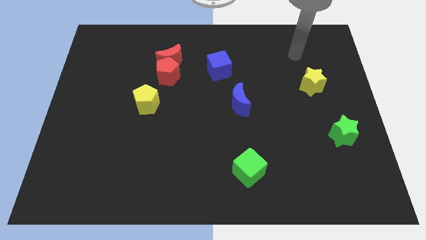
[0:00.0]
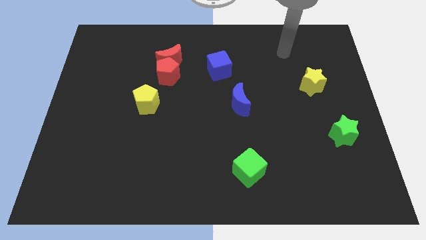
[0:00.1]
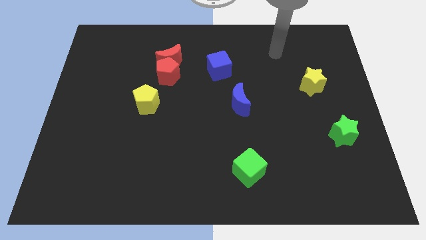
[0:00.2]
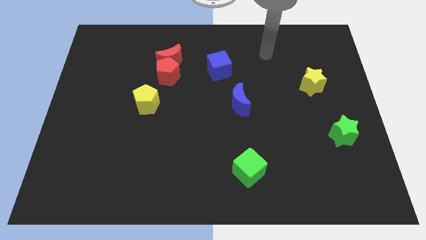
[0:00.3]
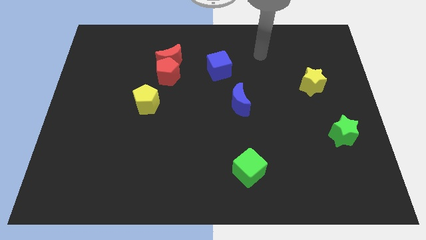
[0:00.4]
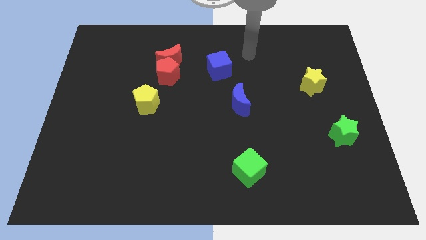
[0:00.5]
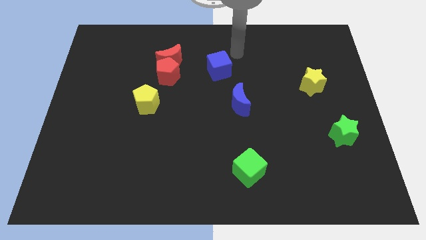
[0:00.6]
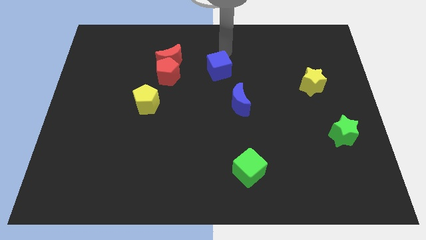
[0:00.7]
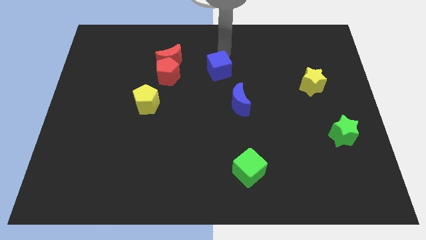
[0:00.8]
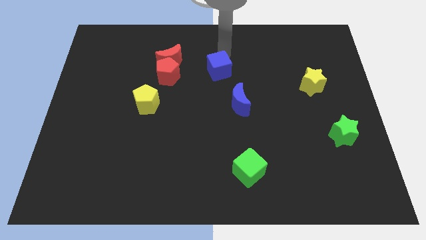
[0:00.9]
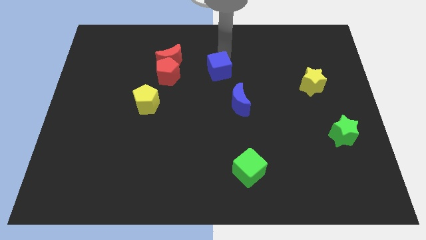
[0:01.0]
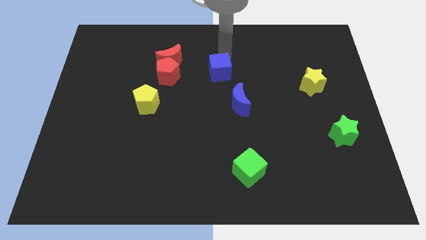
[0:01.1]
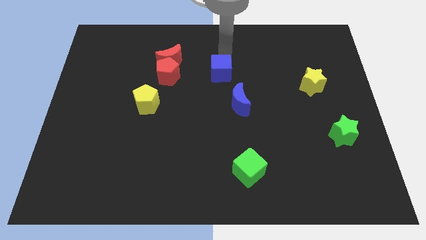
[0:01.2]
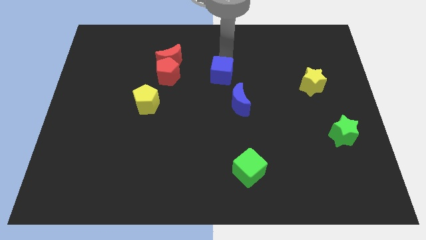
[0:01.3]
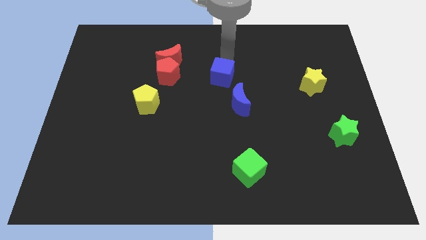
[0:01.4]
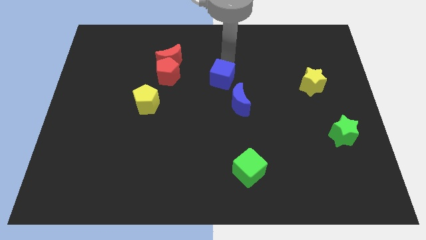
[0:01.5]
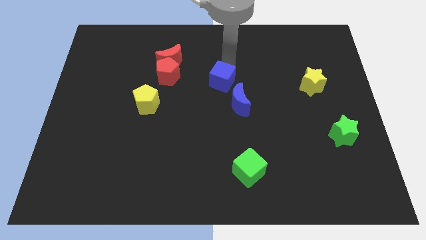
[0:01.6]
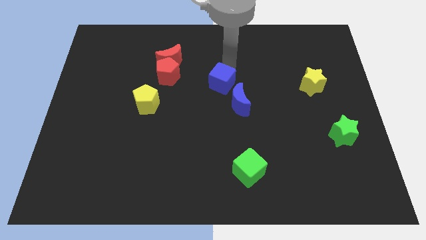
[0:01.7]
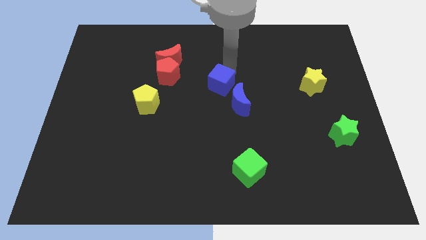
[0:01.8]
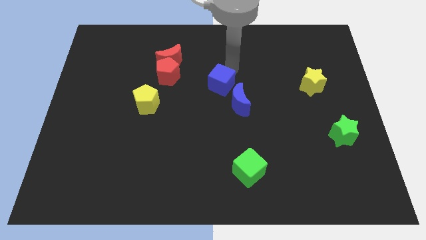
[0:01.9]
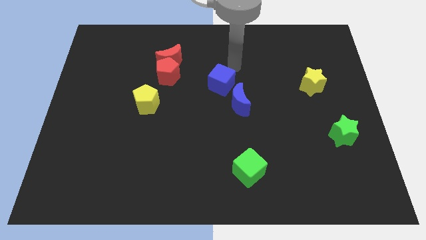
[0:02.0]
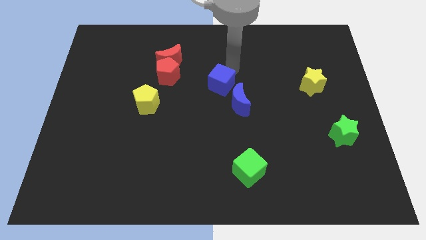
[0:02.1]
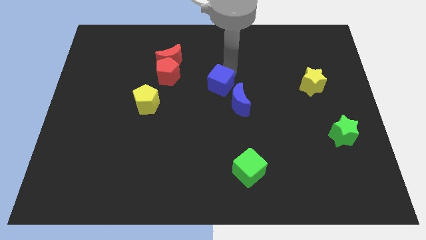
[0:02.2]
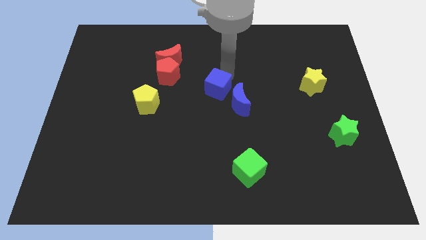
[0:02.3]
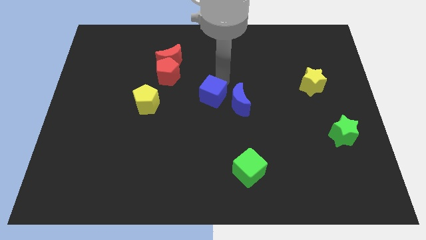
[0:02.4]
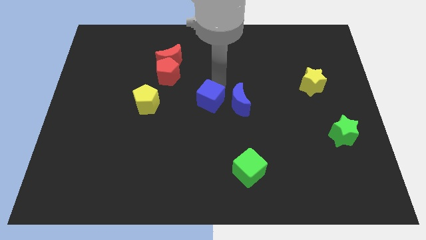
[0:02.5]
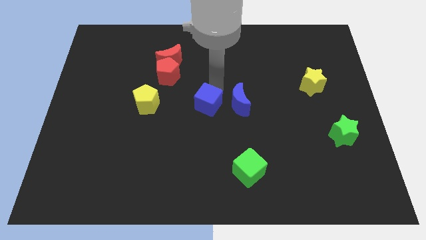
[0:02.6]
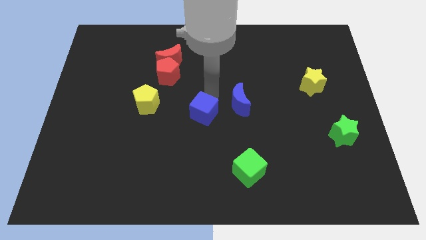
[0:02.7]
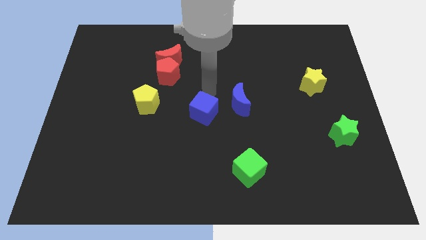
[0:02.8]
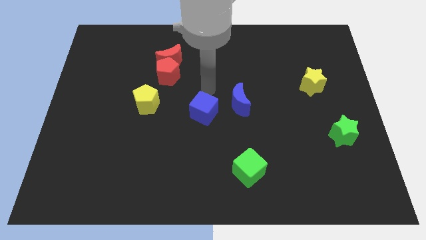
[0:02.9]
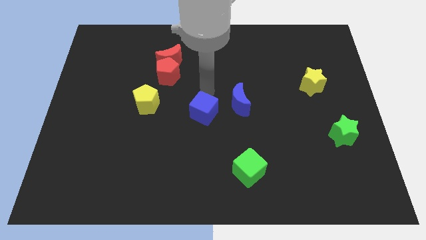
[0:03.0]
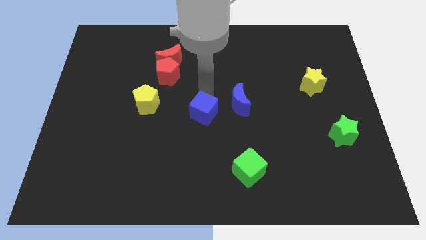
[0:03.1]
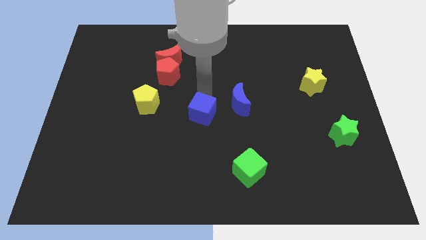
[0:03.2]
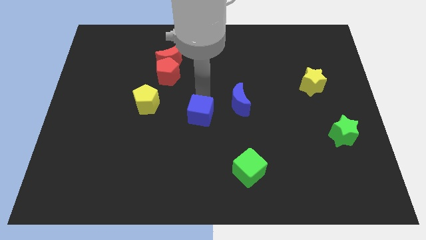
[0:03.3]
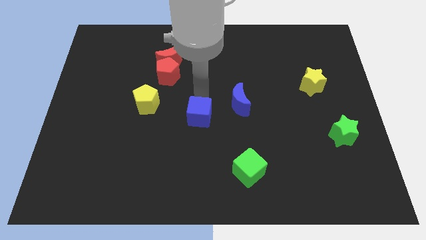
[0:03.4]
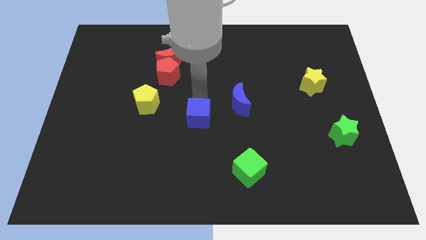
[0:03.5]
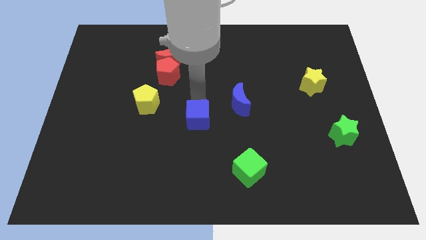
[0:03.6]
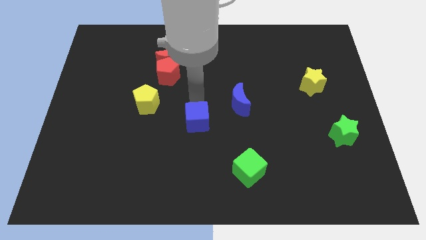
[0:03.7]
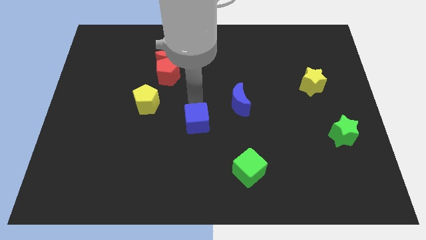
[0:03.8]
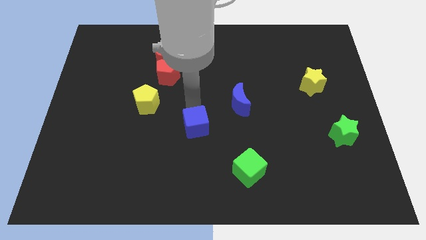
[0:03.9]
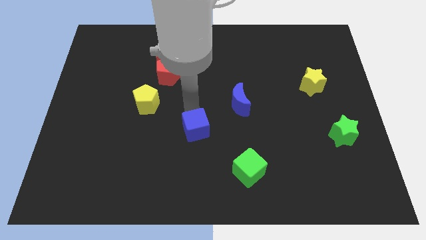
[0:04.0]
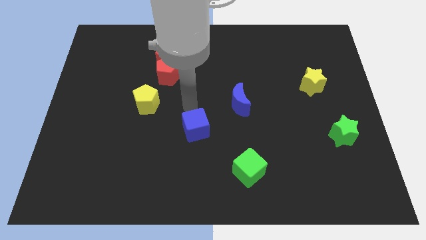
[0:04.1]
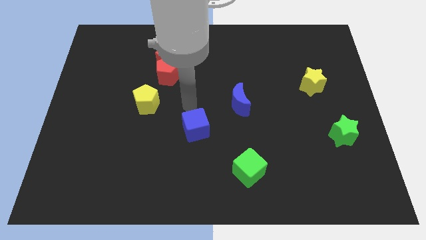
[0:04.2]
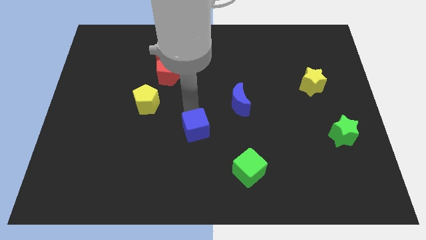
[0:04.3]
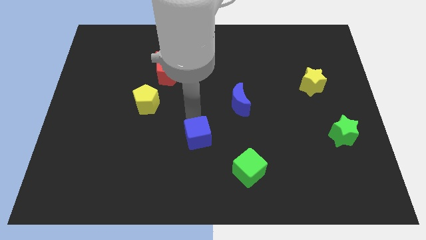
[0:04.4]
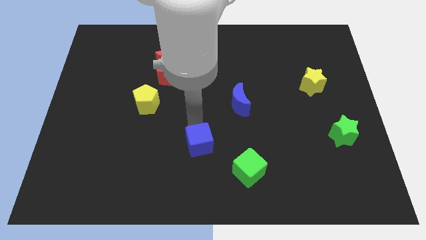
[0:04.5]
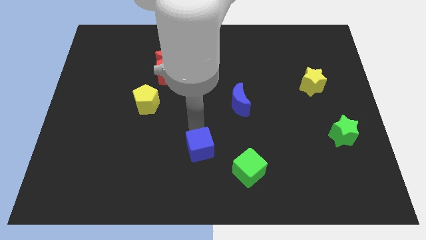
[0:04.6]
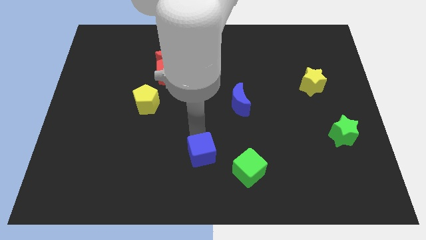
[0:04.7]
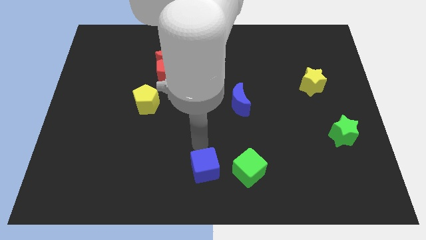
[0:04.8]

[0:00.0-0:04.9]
put the blue cube to the bottom

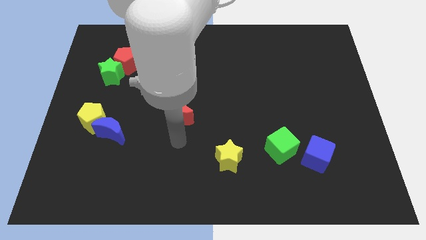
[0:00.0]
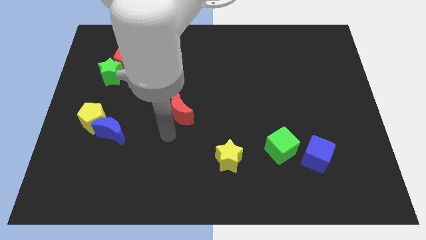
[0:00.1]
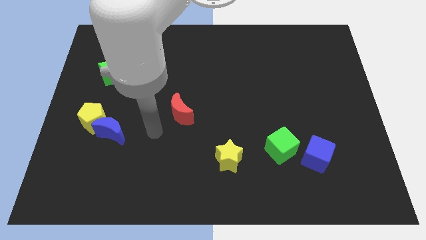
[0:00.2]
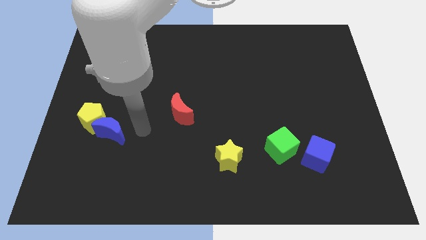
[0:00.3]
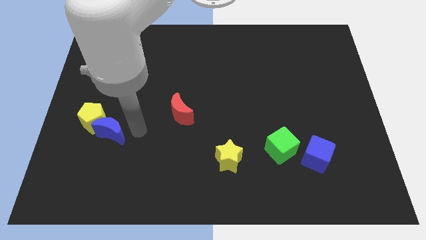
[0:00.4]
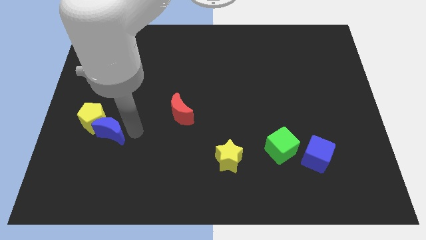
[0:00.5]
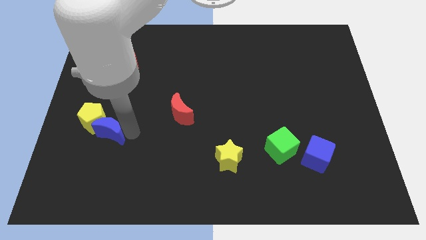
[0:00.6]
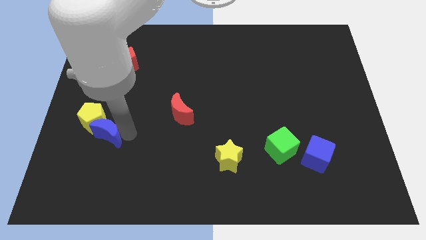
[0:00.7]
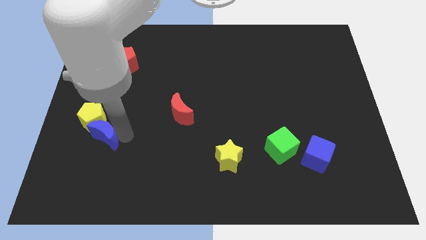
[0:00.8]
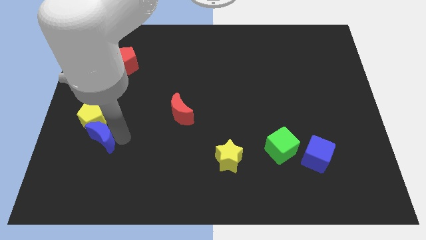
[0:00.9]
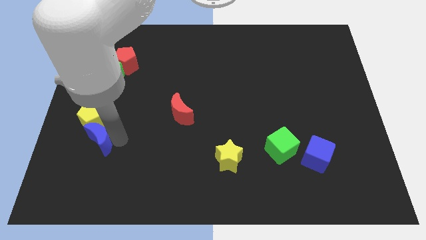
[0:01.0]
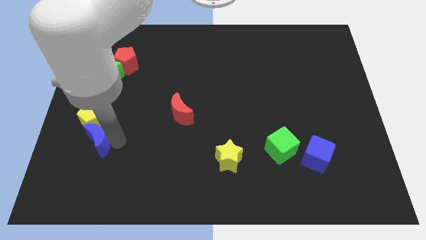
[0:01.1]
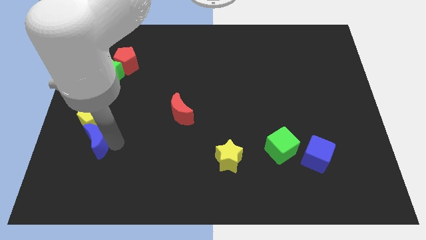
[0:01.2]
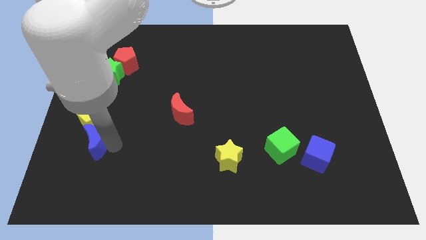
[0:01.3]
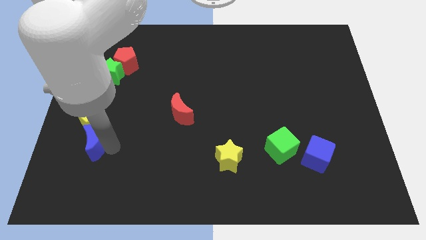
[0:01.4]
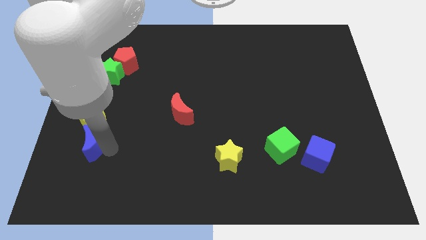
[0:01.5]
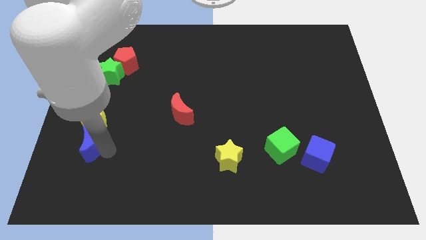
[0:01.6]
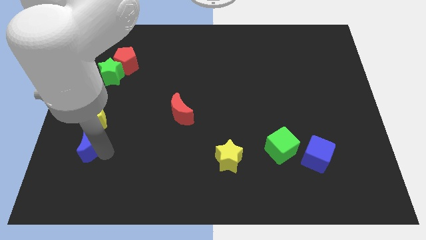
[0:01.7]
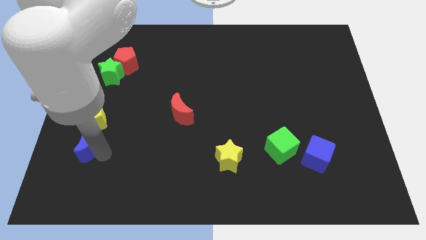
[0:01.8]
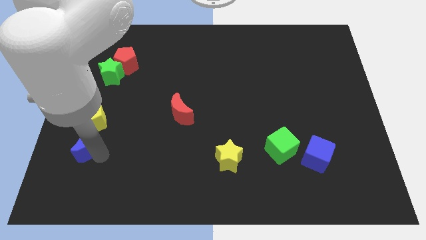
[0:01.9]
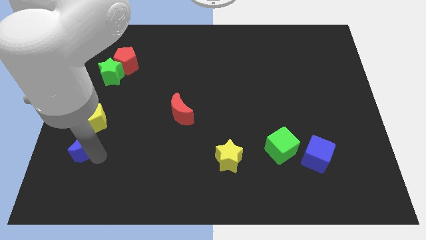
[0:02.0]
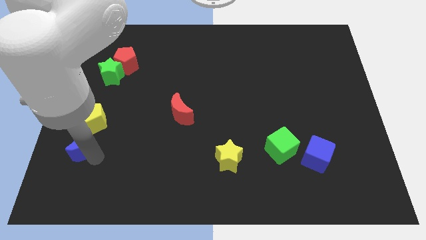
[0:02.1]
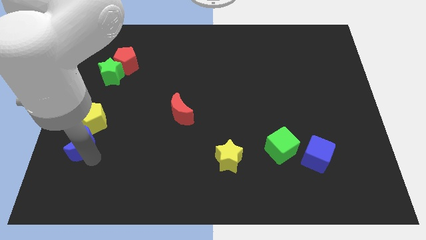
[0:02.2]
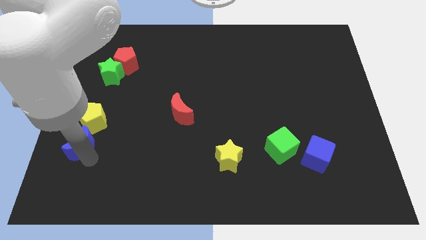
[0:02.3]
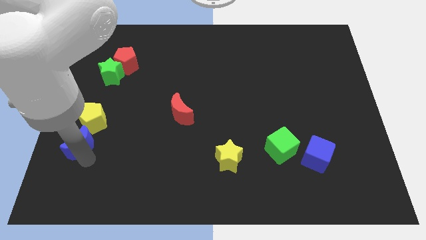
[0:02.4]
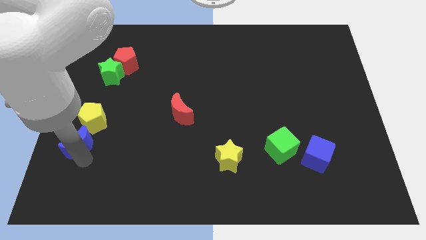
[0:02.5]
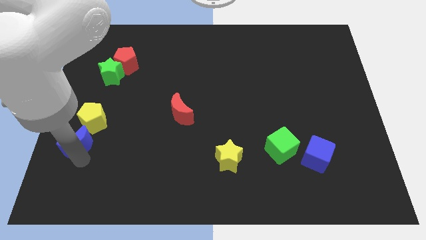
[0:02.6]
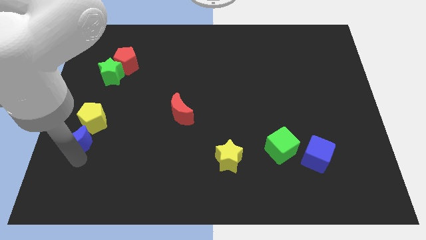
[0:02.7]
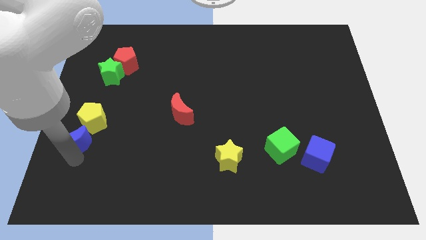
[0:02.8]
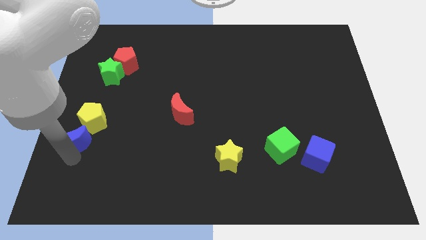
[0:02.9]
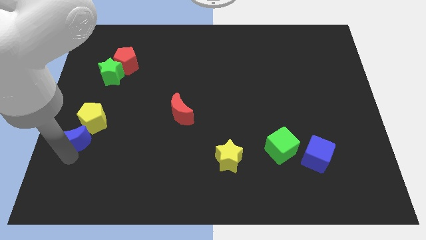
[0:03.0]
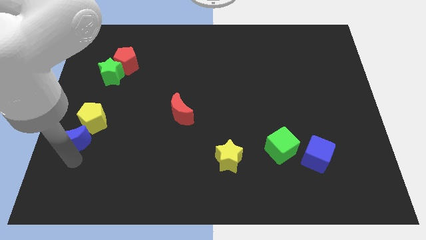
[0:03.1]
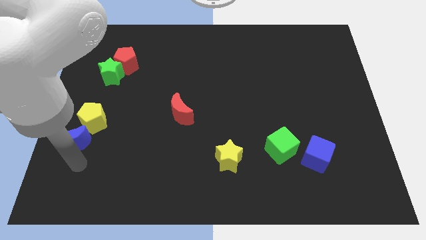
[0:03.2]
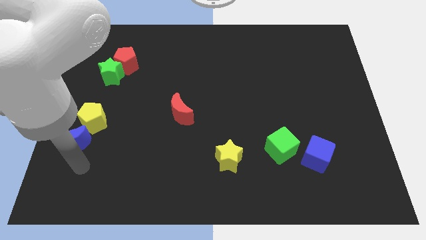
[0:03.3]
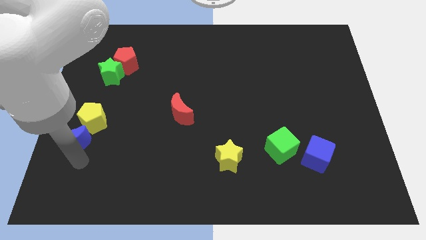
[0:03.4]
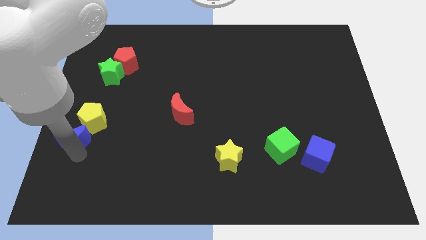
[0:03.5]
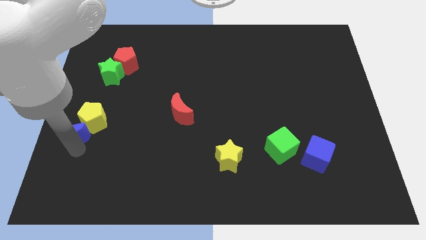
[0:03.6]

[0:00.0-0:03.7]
push the blue moon to the left side
